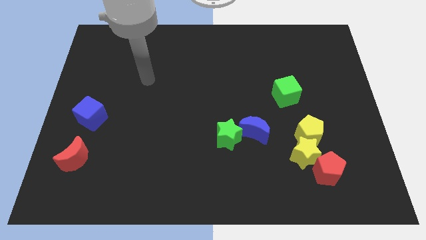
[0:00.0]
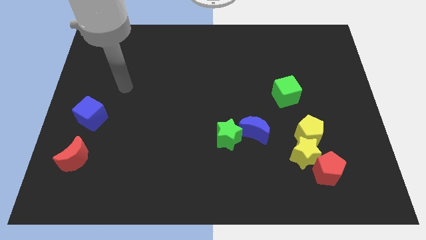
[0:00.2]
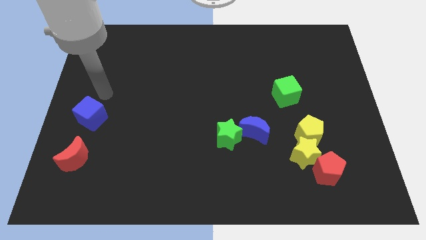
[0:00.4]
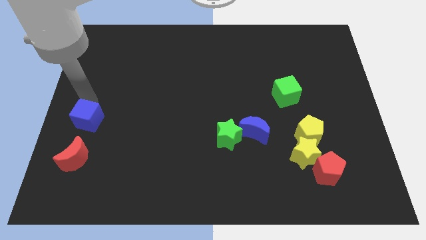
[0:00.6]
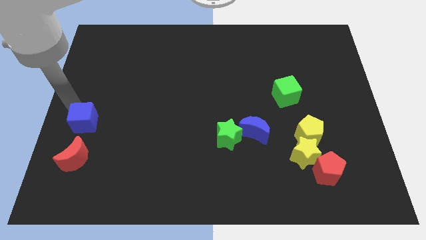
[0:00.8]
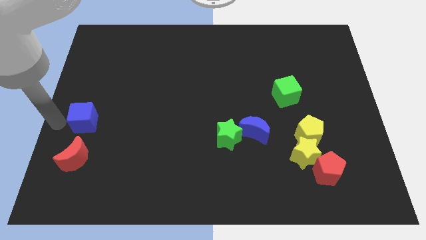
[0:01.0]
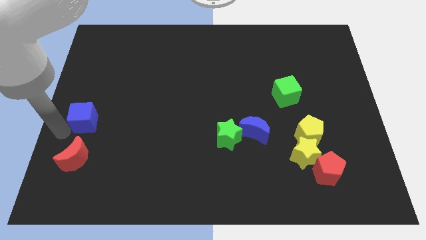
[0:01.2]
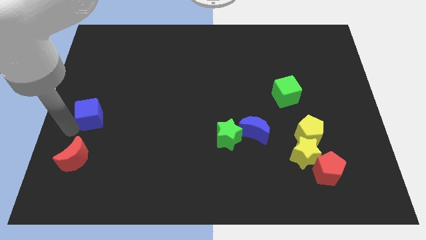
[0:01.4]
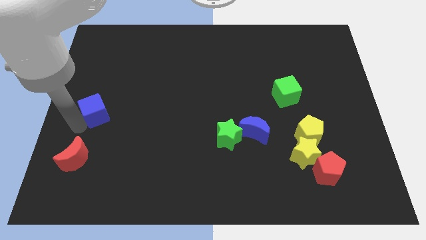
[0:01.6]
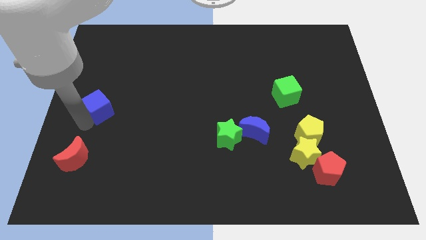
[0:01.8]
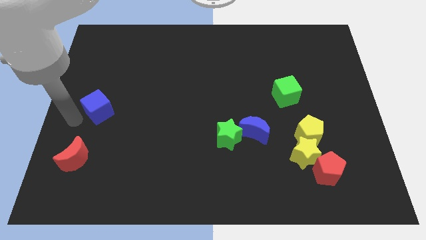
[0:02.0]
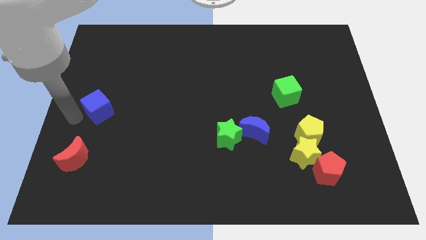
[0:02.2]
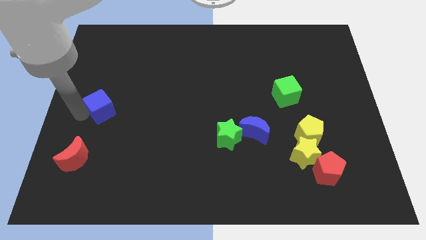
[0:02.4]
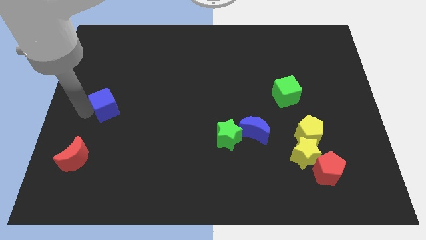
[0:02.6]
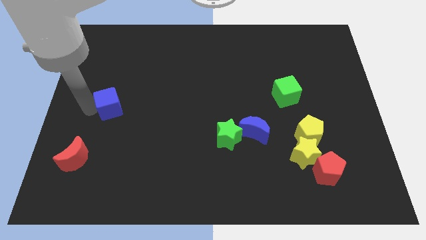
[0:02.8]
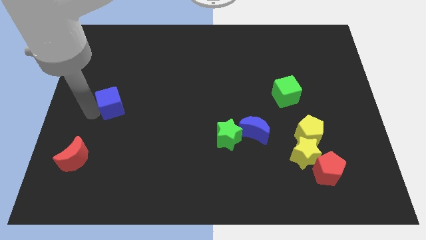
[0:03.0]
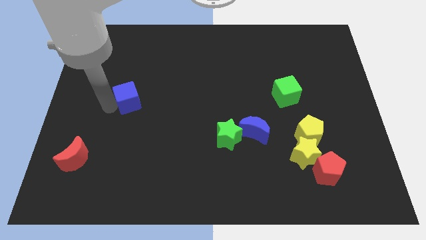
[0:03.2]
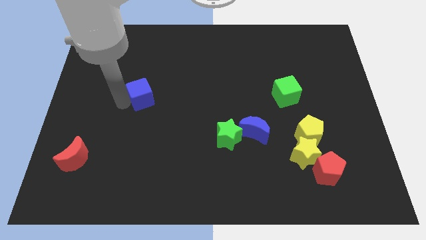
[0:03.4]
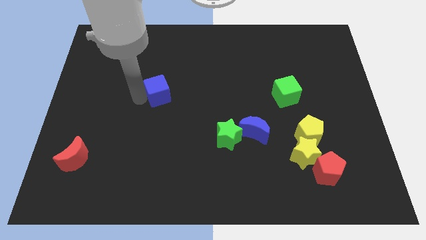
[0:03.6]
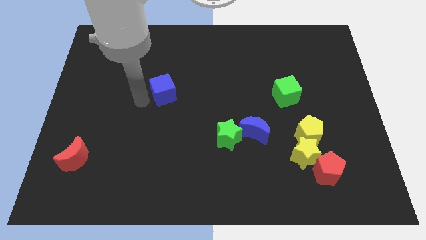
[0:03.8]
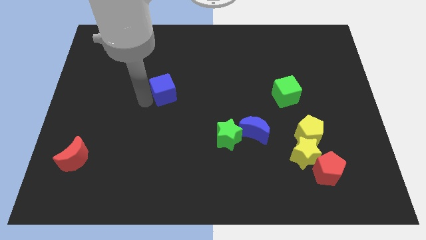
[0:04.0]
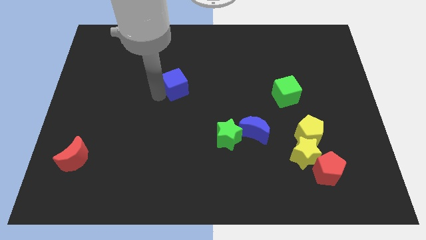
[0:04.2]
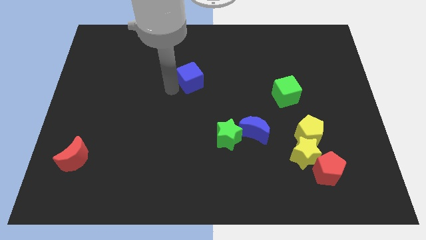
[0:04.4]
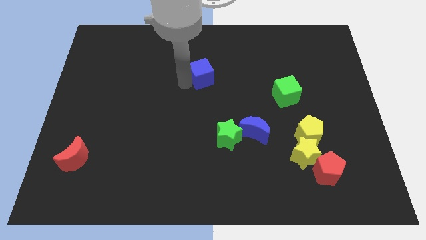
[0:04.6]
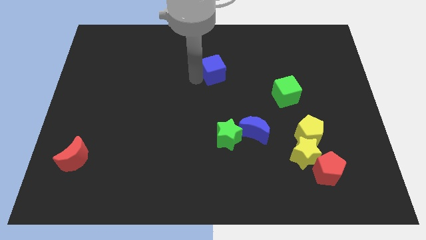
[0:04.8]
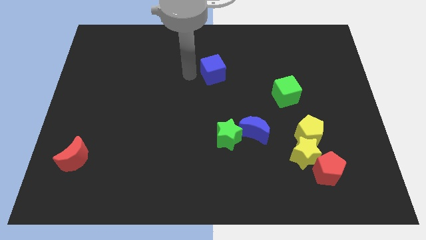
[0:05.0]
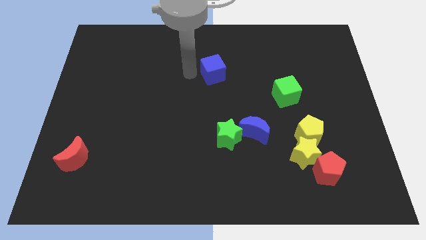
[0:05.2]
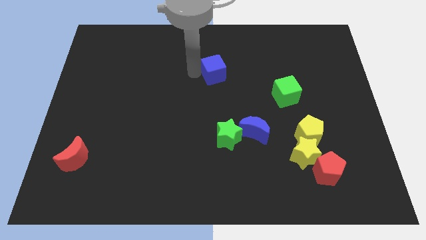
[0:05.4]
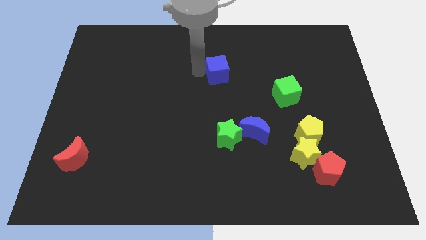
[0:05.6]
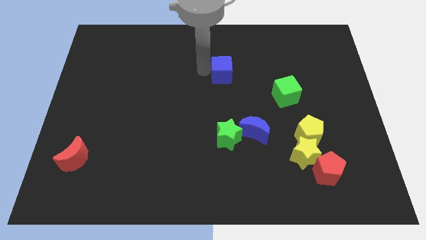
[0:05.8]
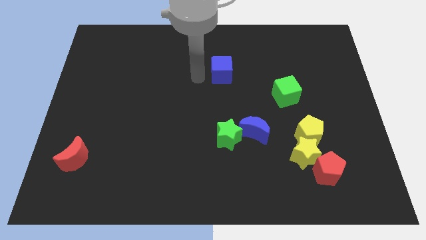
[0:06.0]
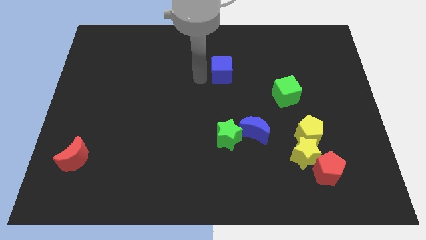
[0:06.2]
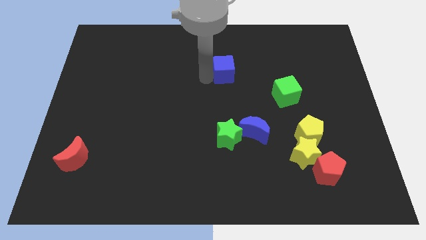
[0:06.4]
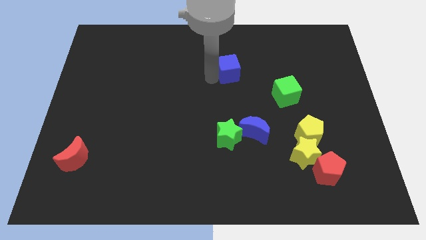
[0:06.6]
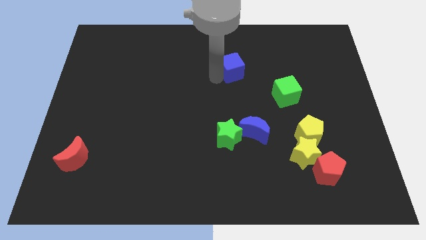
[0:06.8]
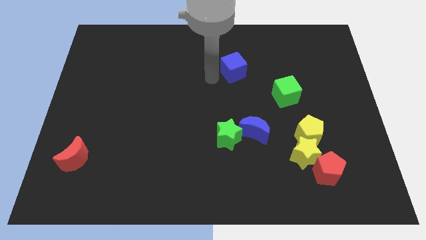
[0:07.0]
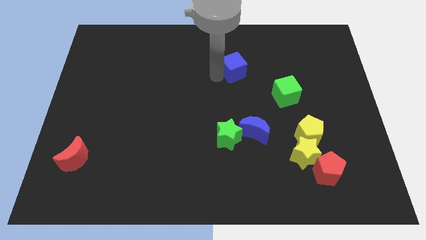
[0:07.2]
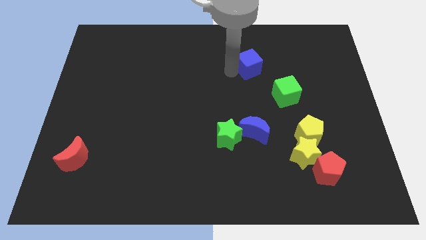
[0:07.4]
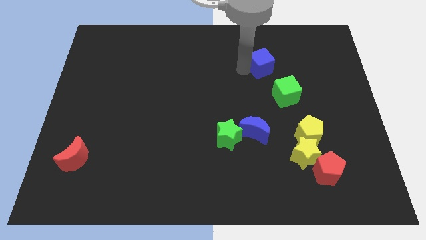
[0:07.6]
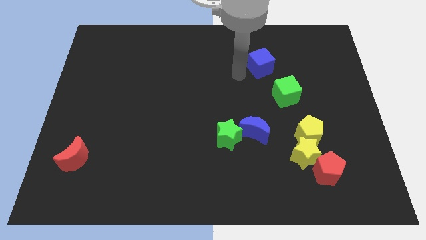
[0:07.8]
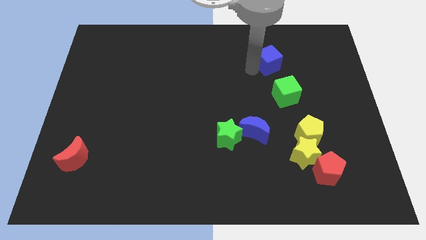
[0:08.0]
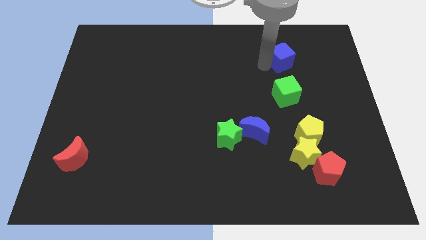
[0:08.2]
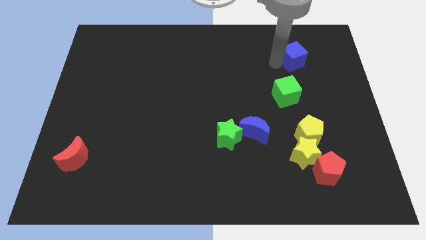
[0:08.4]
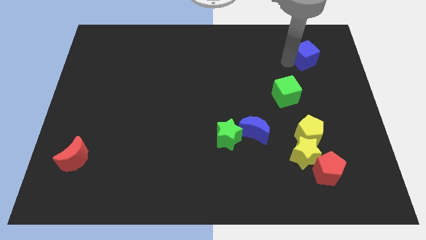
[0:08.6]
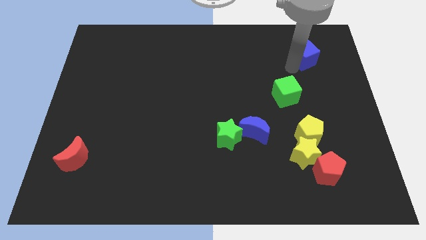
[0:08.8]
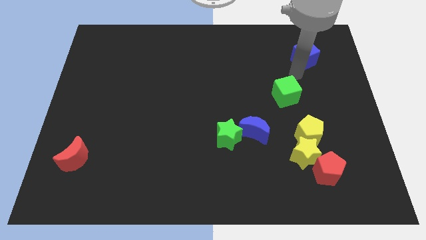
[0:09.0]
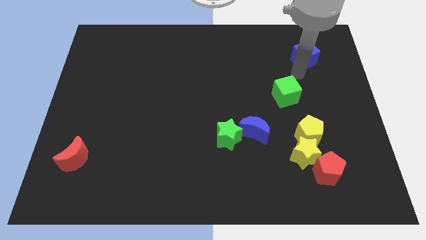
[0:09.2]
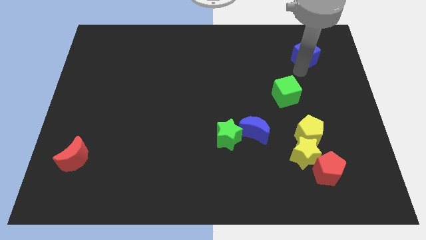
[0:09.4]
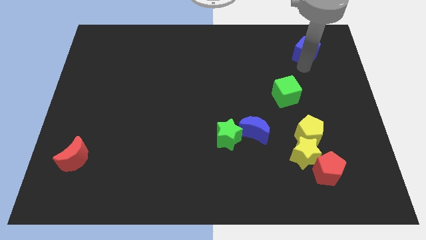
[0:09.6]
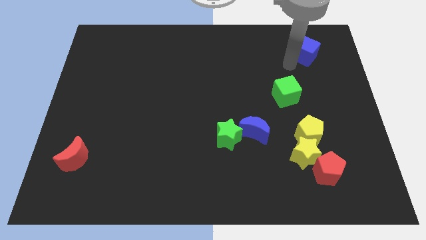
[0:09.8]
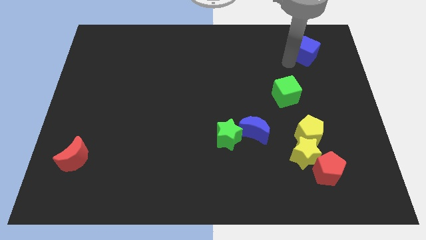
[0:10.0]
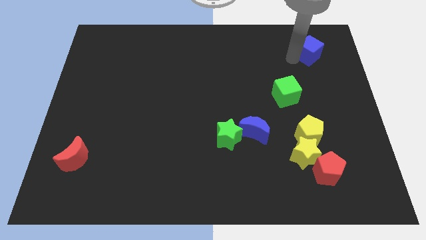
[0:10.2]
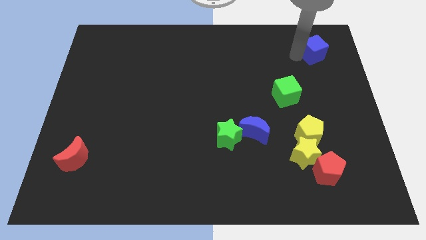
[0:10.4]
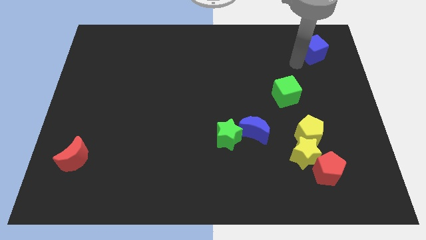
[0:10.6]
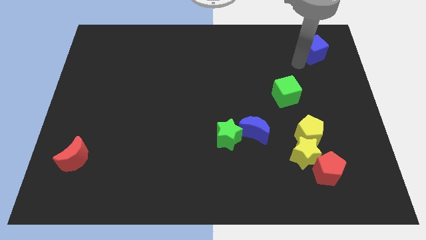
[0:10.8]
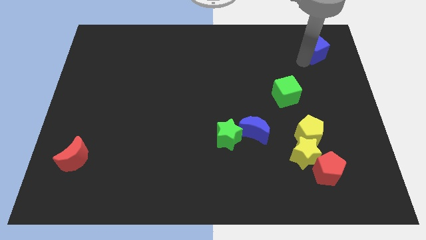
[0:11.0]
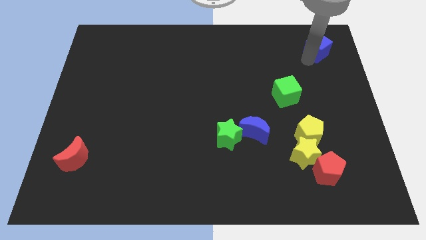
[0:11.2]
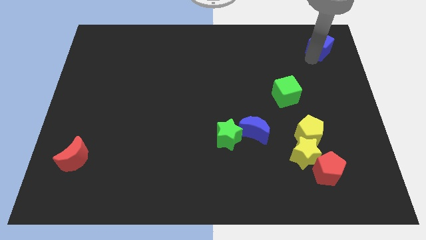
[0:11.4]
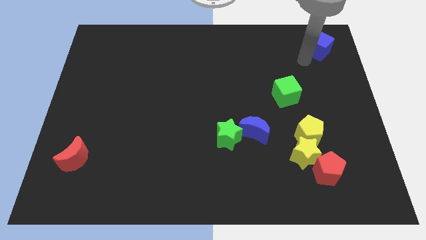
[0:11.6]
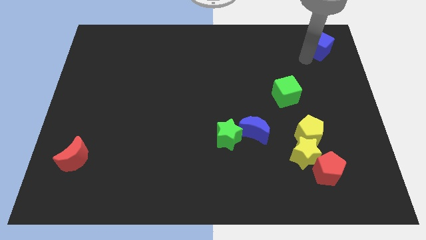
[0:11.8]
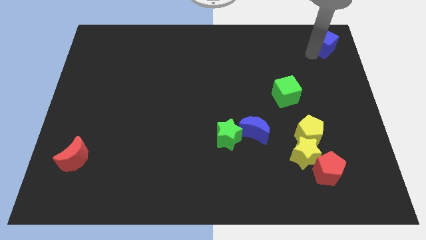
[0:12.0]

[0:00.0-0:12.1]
slide the blue cube to the top right of the board
